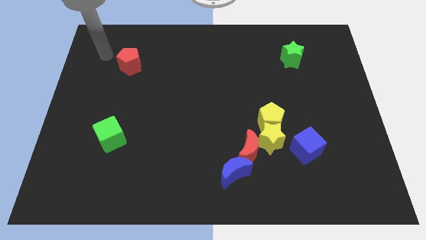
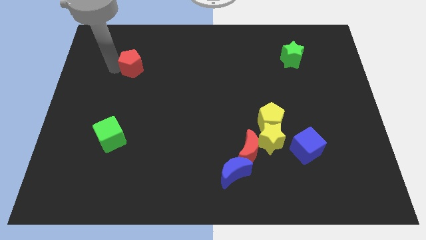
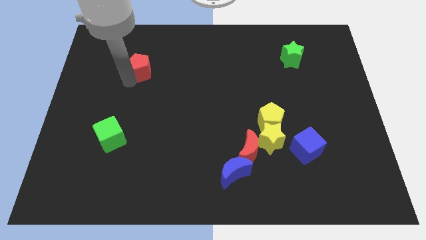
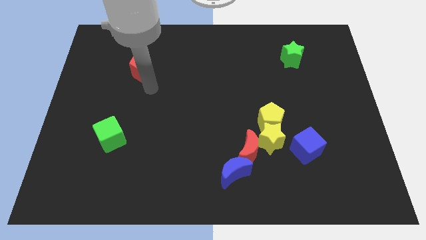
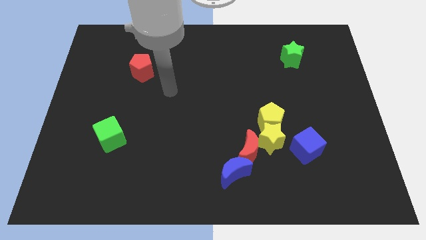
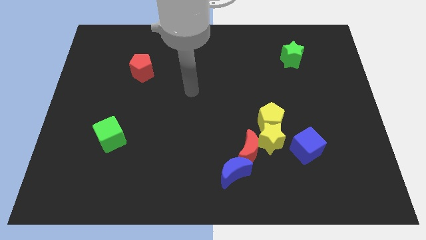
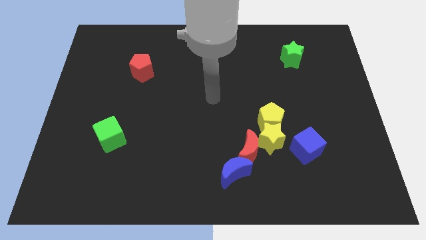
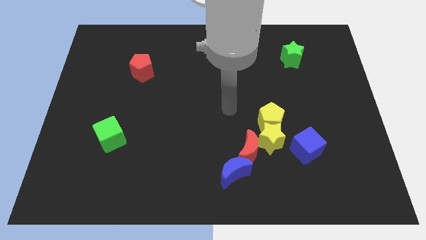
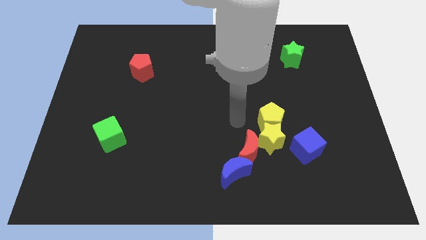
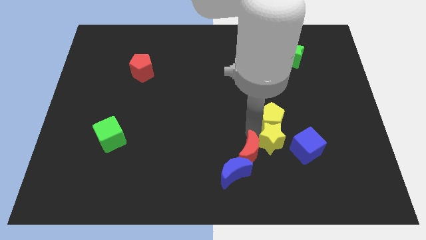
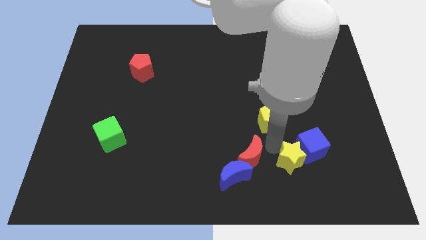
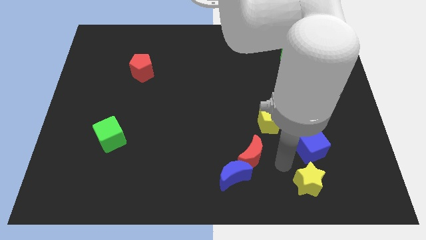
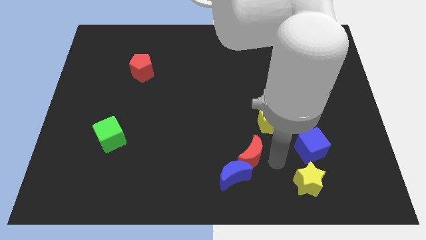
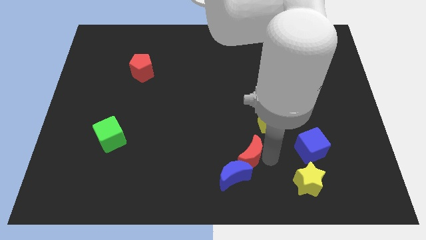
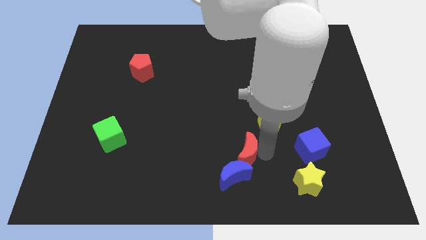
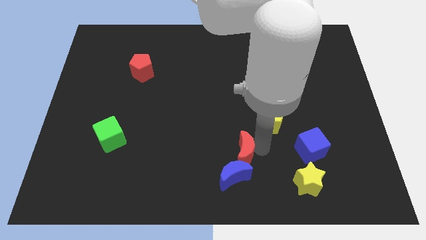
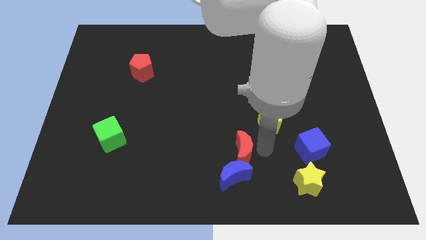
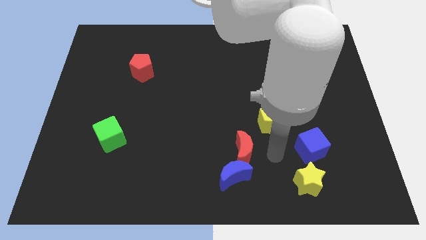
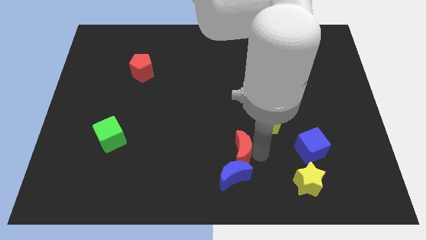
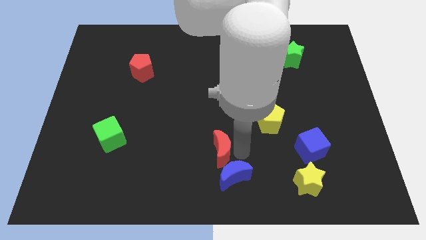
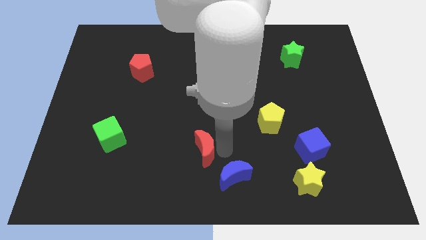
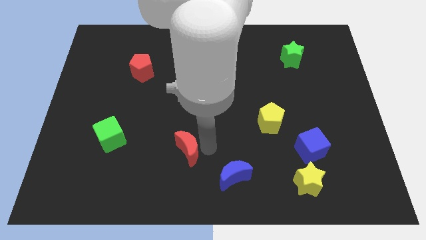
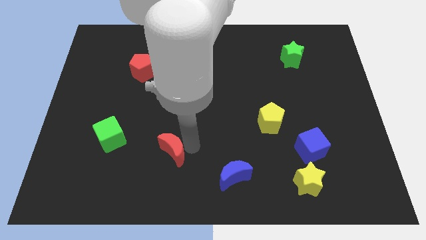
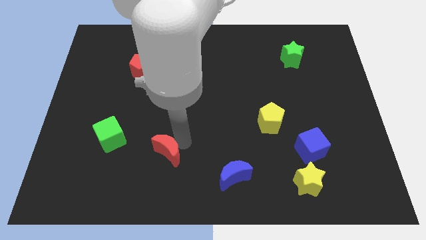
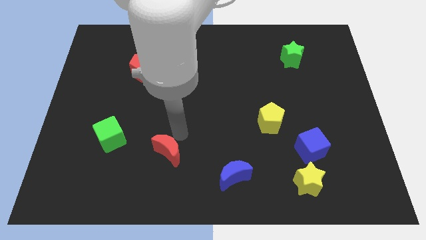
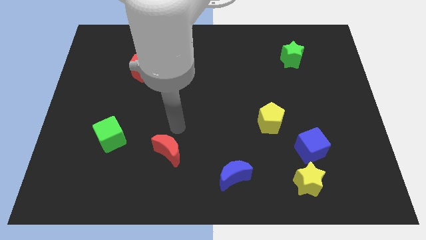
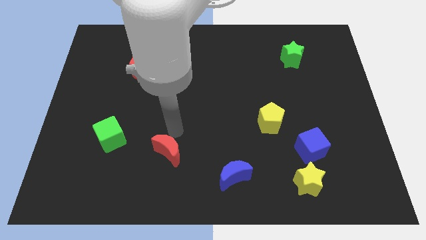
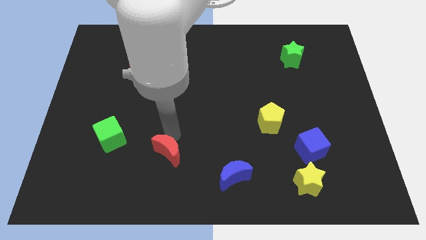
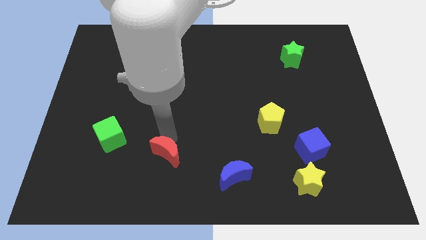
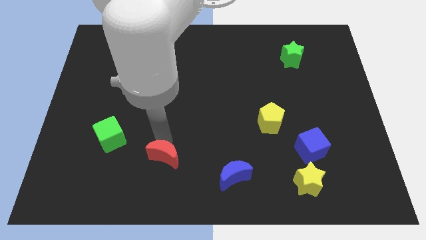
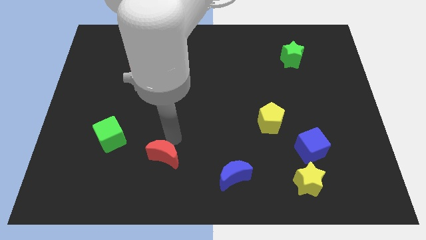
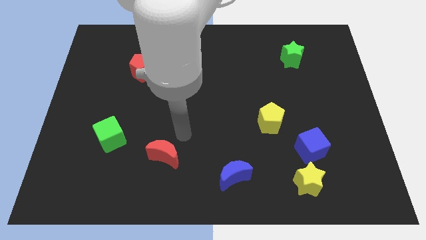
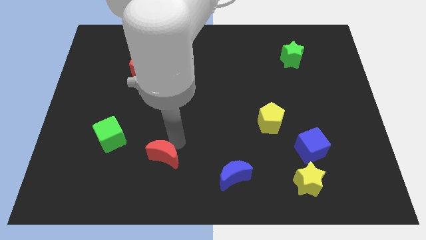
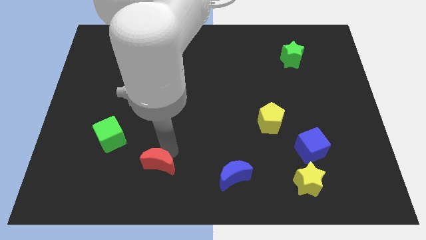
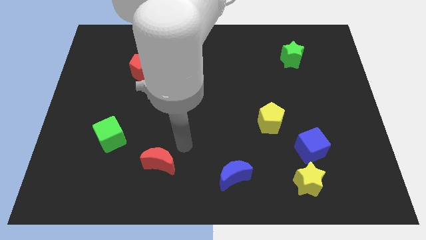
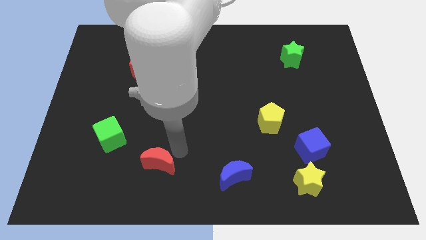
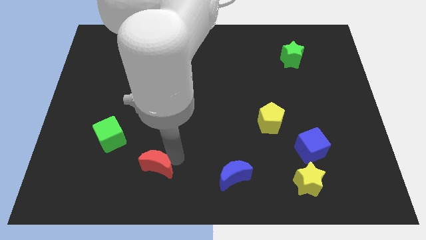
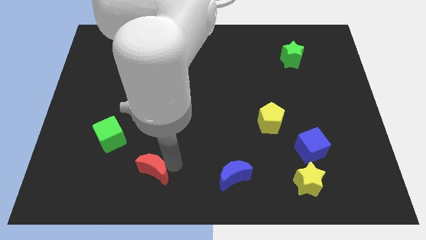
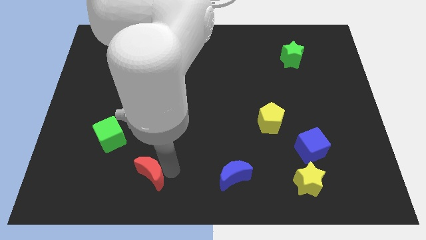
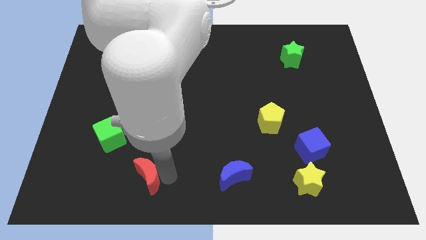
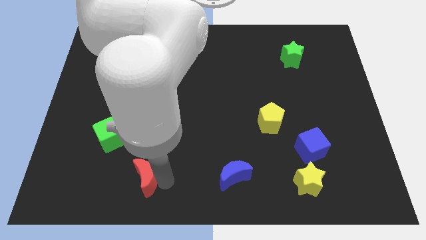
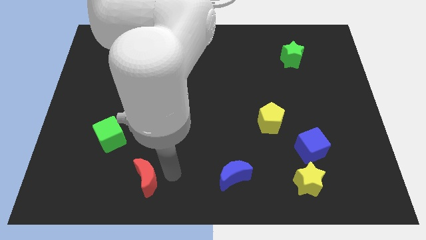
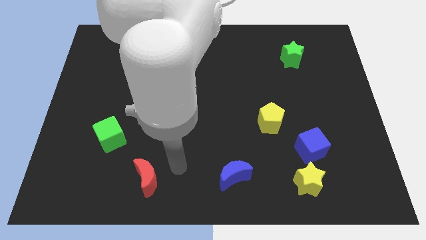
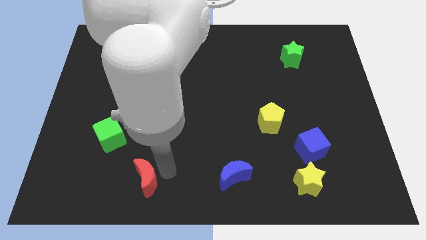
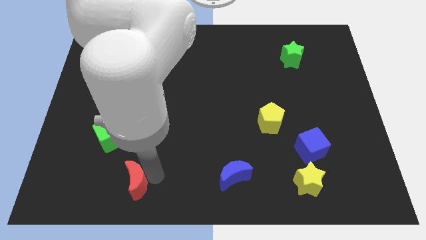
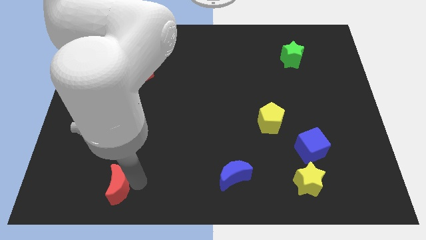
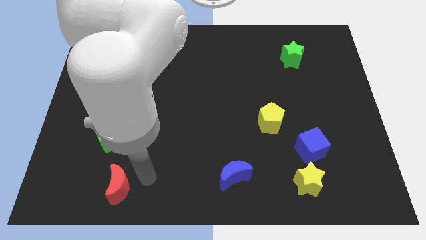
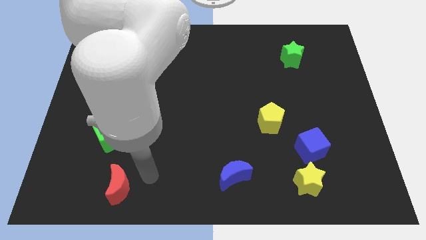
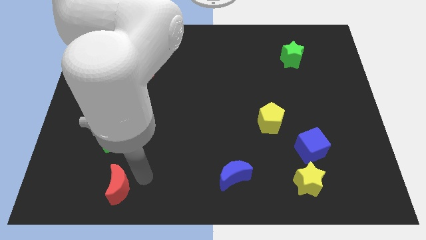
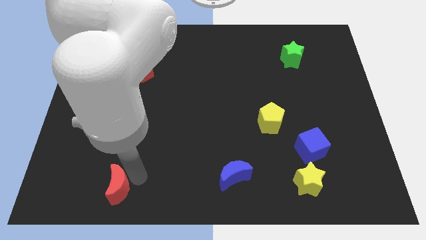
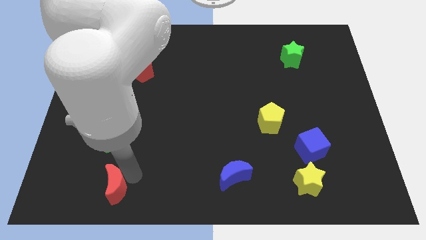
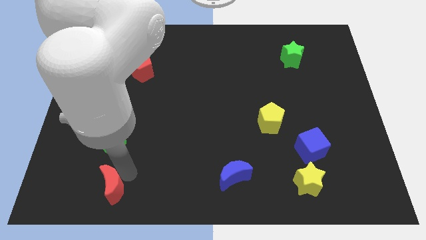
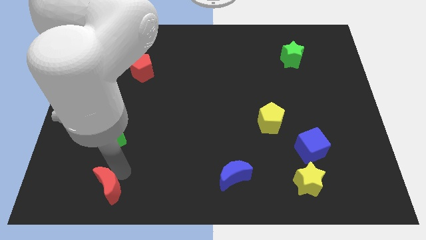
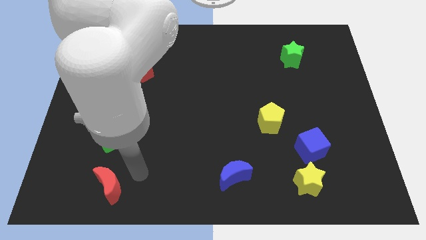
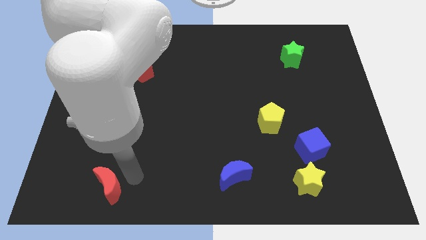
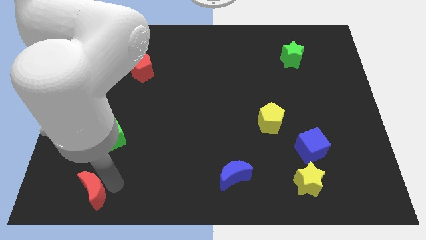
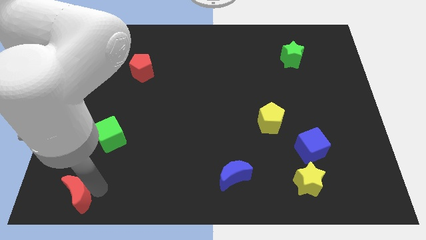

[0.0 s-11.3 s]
put the red moon to the bottom left

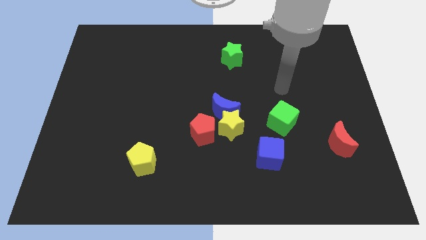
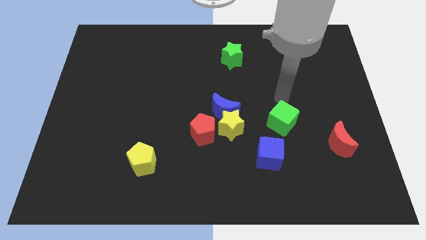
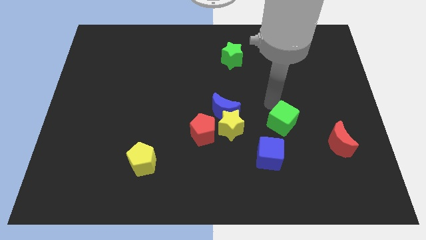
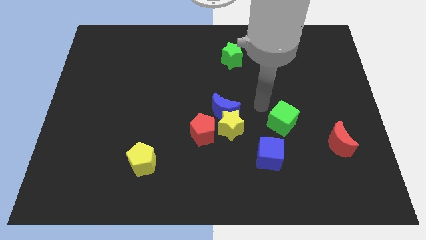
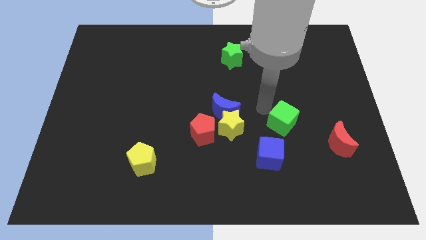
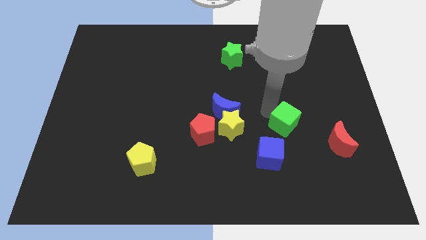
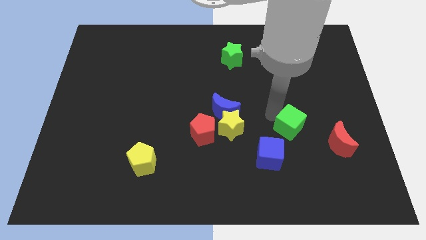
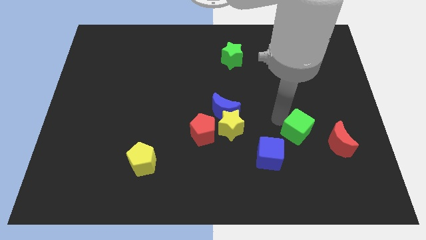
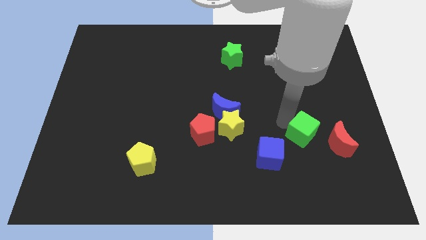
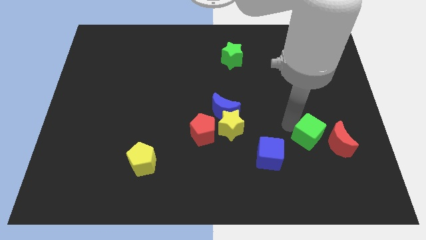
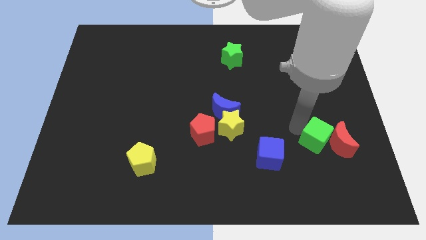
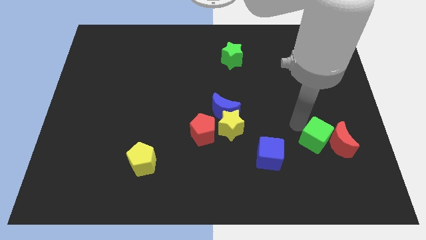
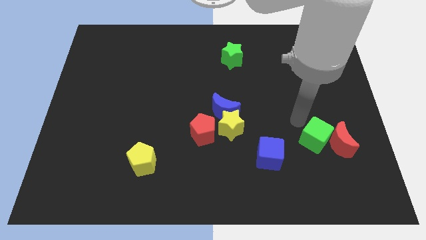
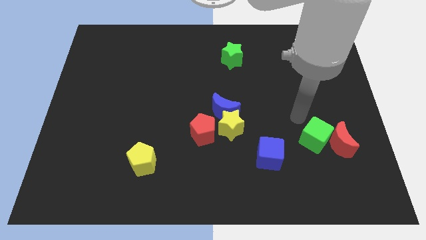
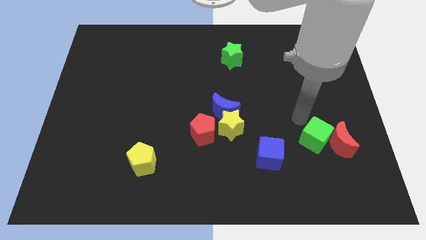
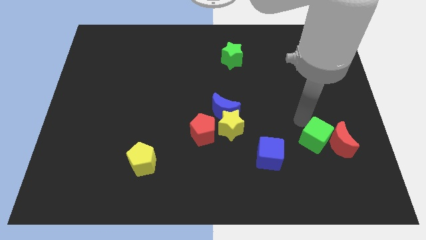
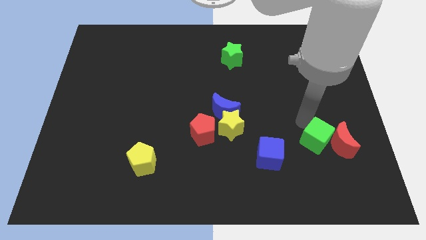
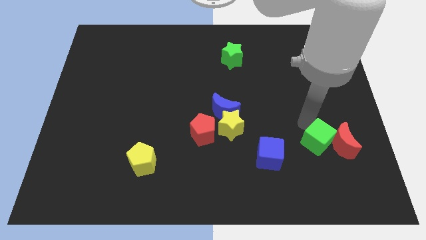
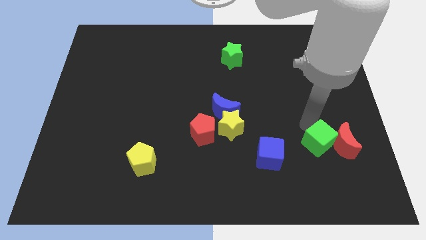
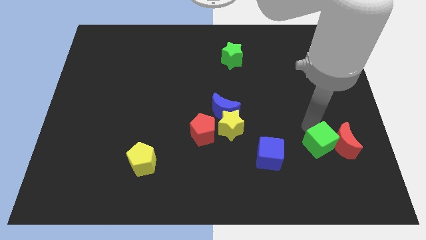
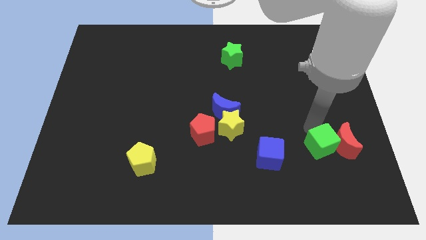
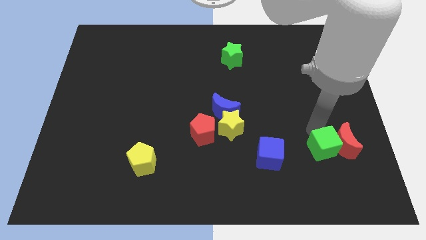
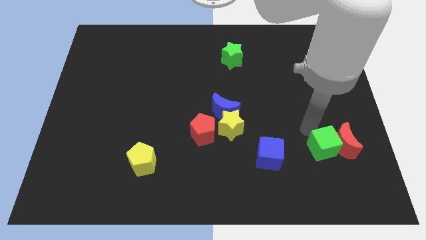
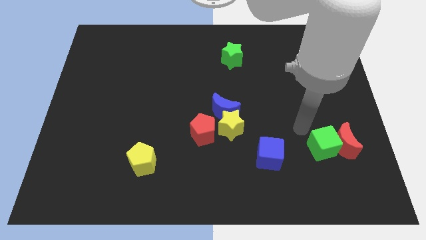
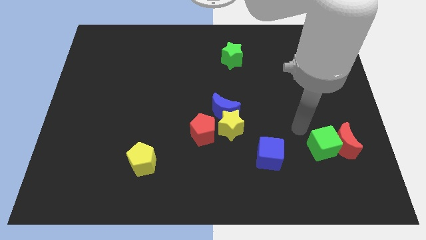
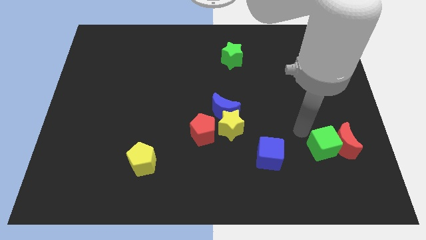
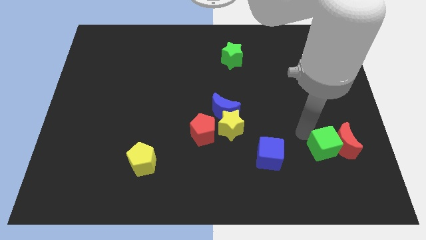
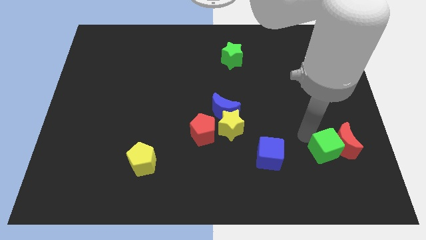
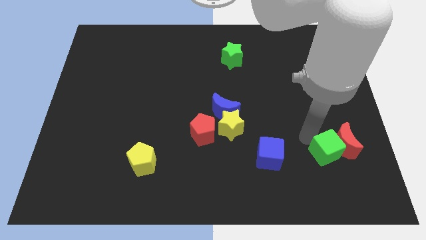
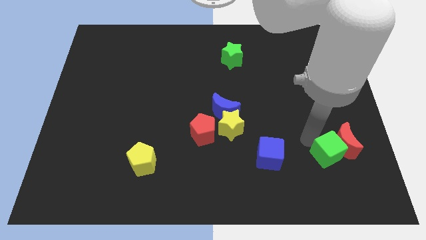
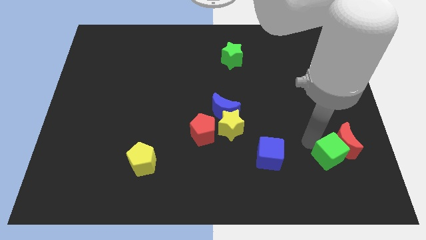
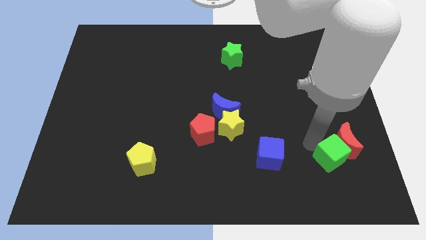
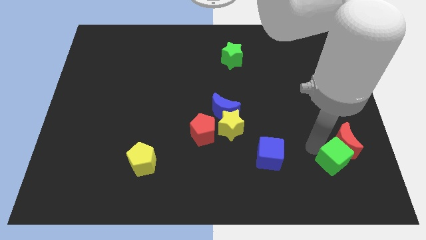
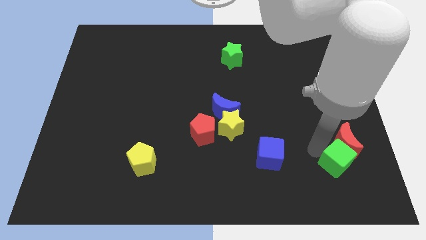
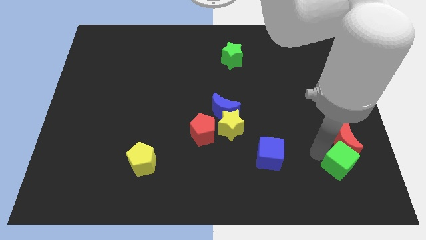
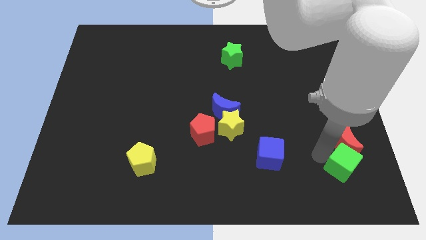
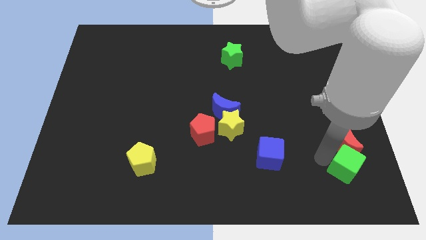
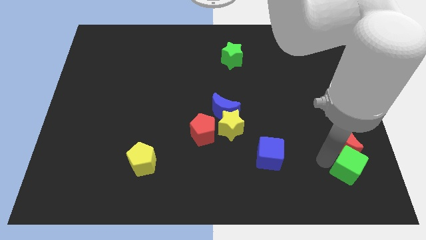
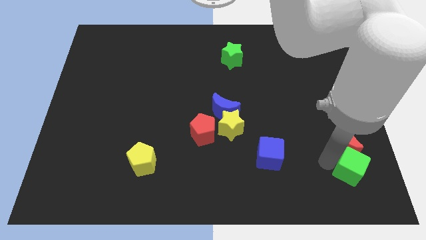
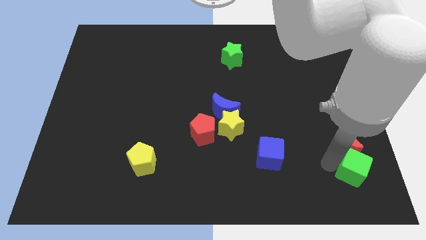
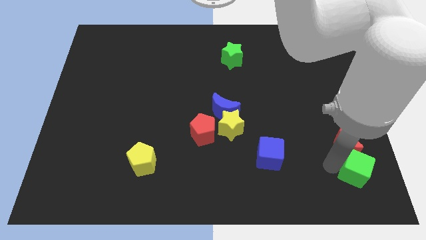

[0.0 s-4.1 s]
push the green cube to the bottom right corner
